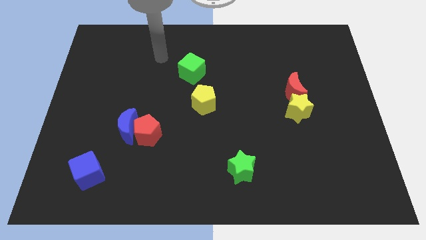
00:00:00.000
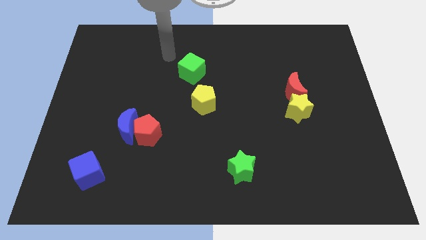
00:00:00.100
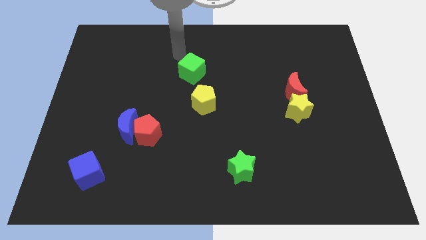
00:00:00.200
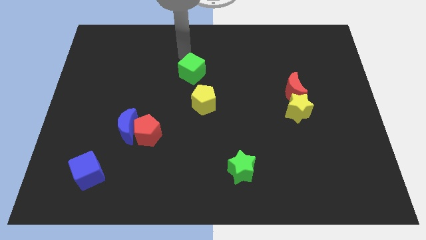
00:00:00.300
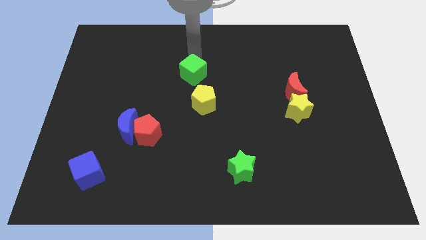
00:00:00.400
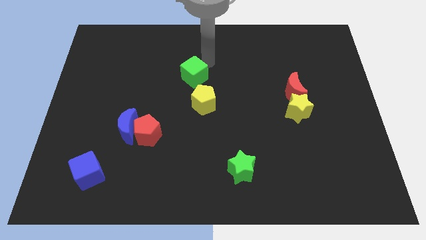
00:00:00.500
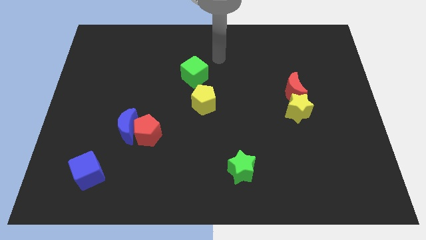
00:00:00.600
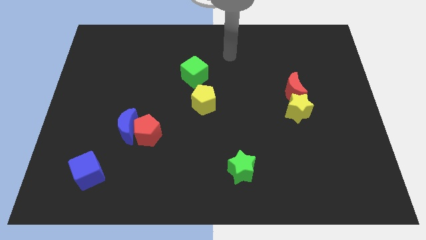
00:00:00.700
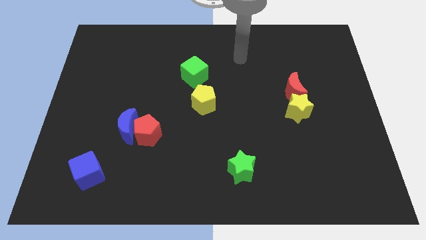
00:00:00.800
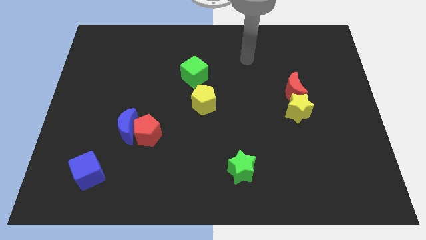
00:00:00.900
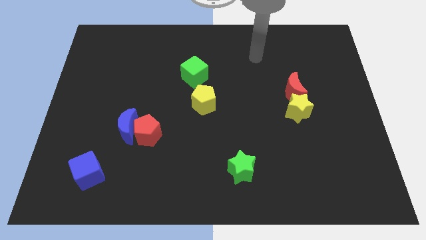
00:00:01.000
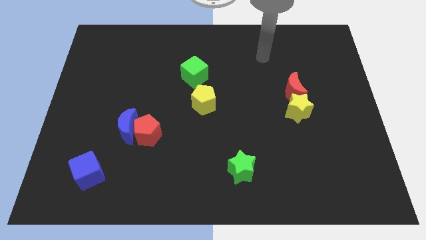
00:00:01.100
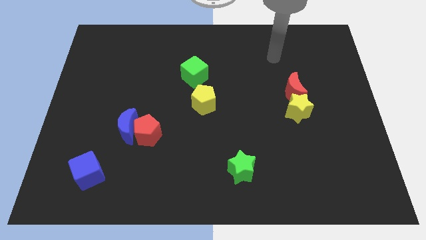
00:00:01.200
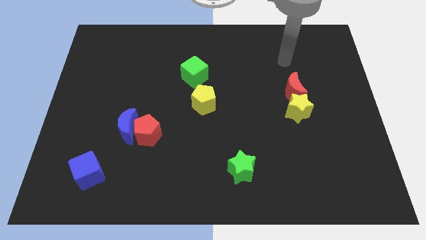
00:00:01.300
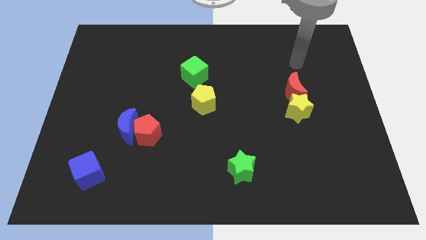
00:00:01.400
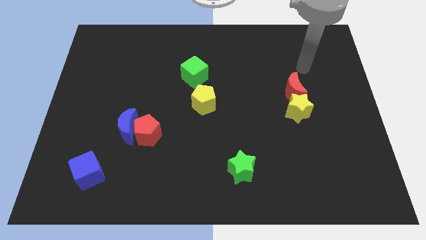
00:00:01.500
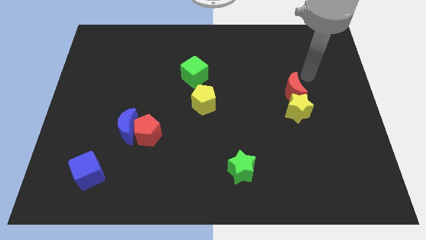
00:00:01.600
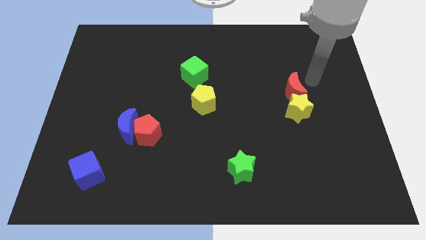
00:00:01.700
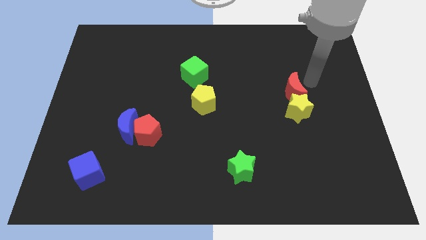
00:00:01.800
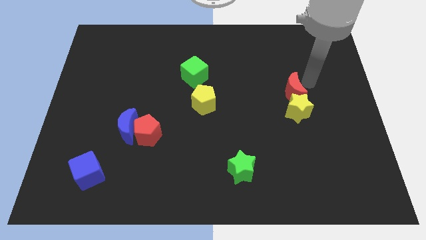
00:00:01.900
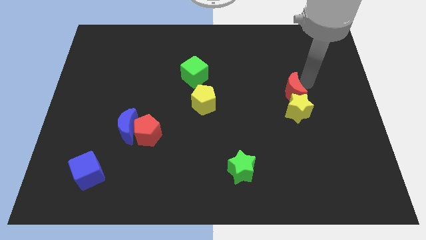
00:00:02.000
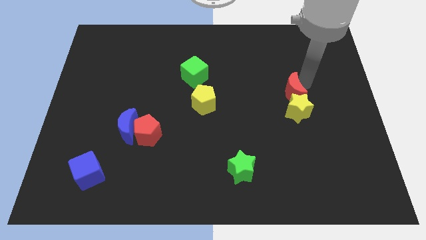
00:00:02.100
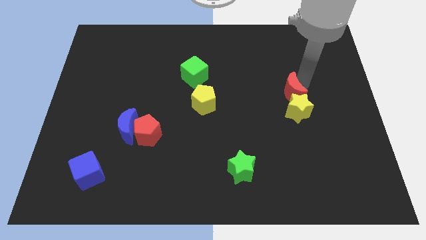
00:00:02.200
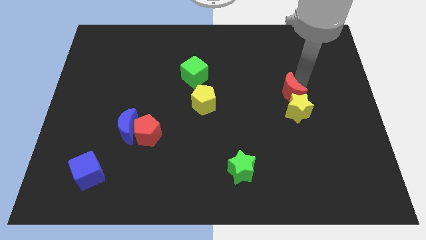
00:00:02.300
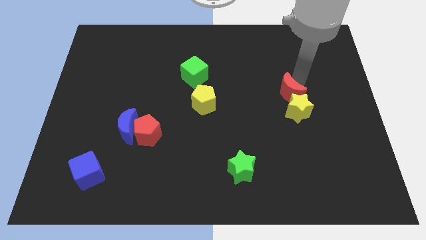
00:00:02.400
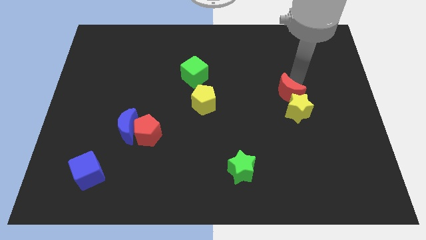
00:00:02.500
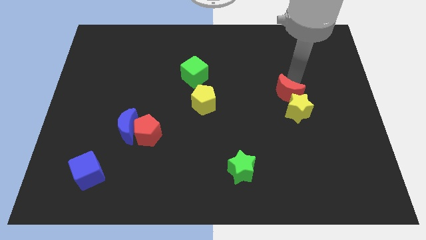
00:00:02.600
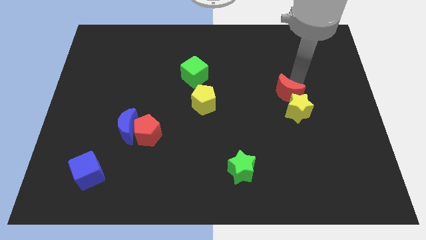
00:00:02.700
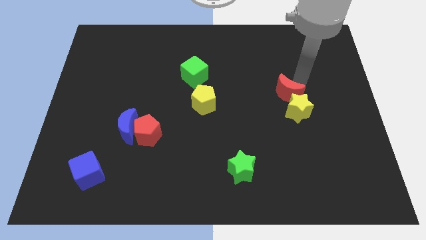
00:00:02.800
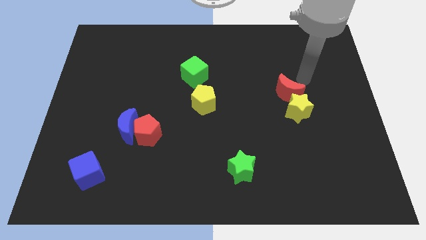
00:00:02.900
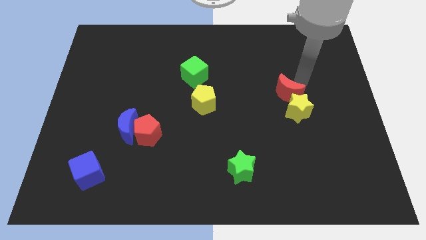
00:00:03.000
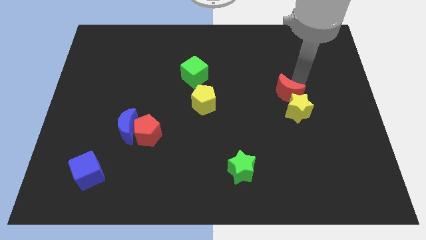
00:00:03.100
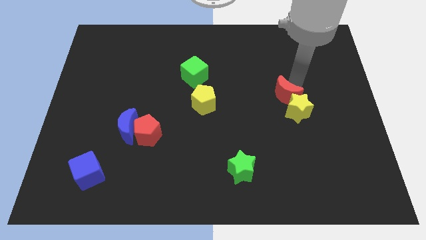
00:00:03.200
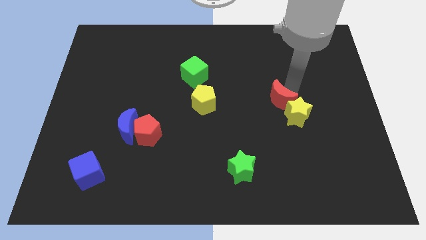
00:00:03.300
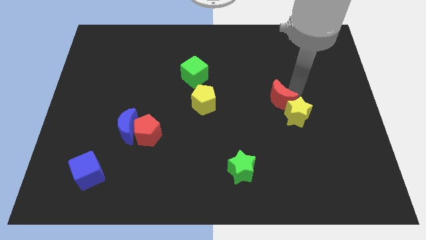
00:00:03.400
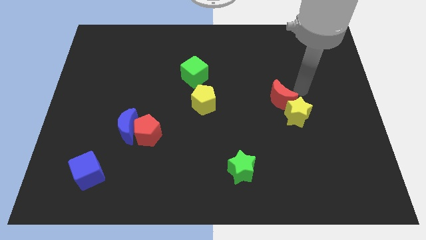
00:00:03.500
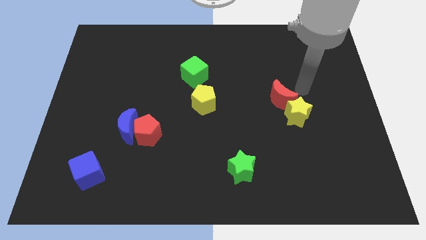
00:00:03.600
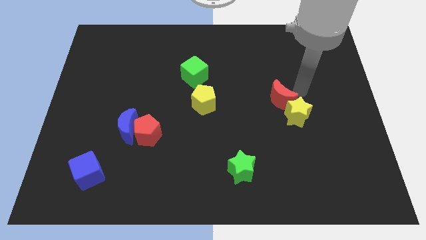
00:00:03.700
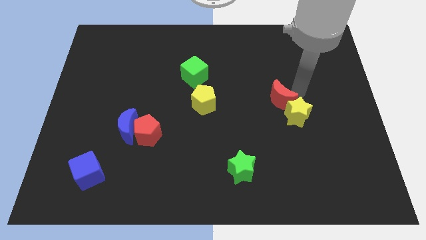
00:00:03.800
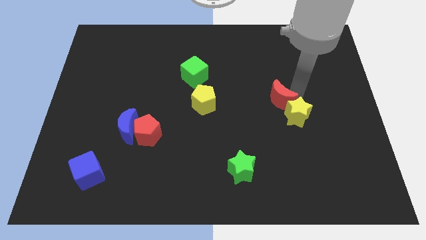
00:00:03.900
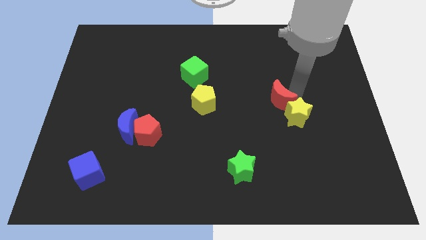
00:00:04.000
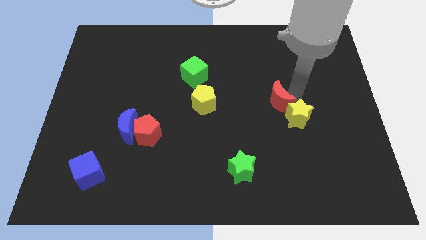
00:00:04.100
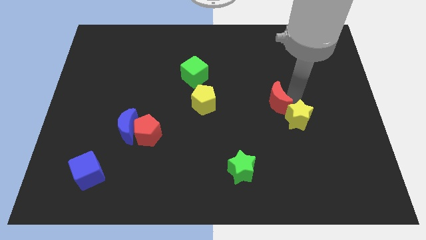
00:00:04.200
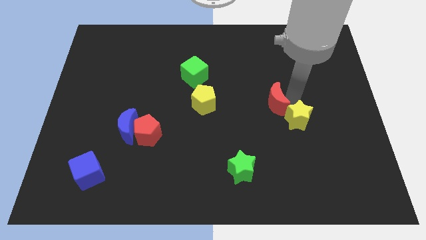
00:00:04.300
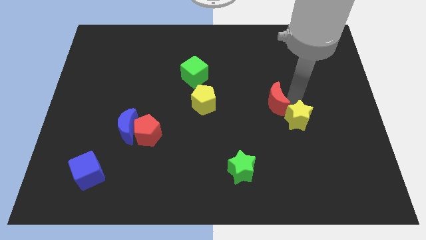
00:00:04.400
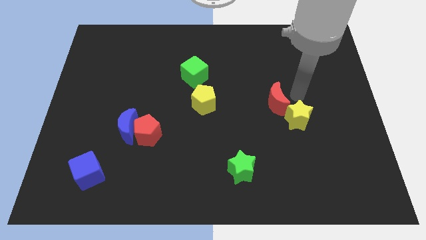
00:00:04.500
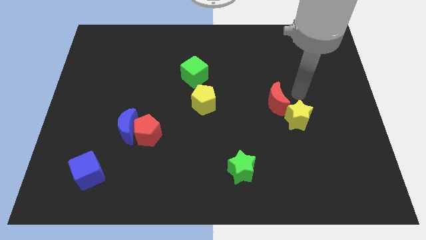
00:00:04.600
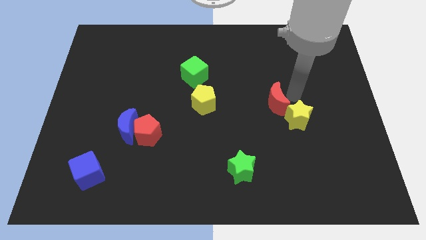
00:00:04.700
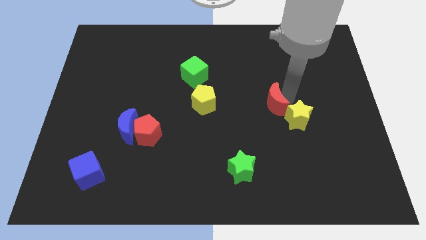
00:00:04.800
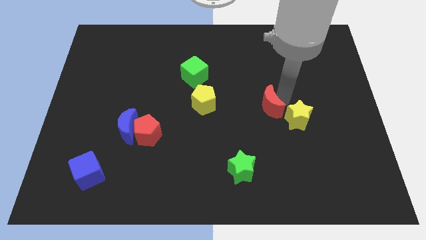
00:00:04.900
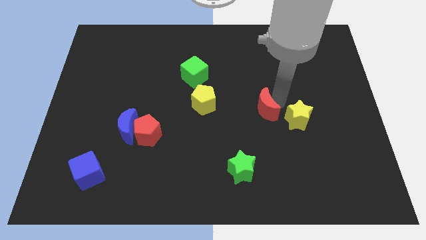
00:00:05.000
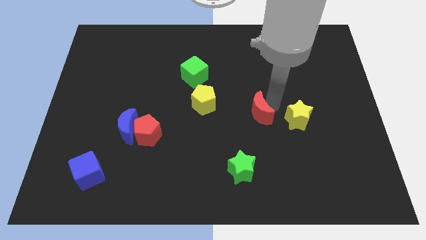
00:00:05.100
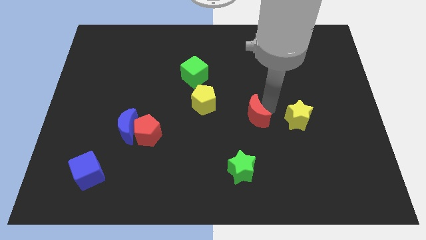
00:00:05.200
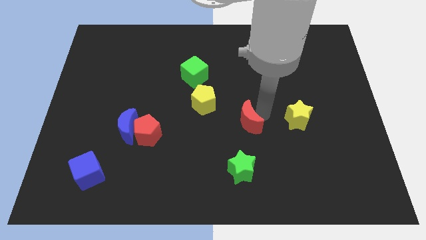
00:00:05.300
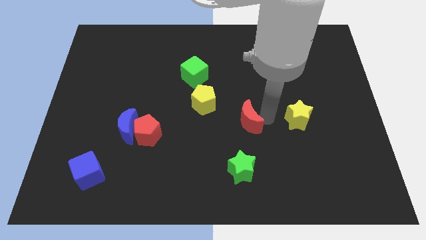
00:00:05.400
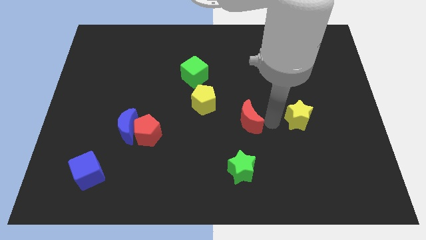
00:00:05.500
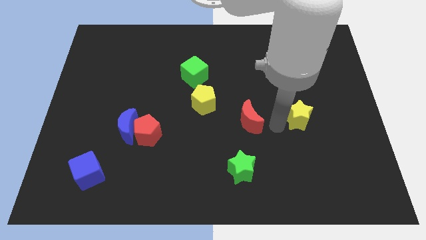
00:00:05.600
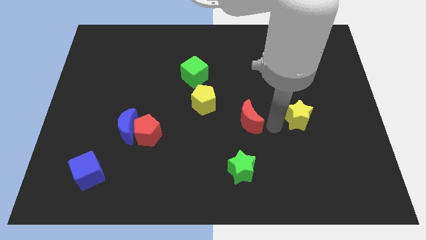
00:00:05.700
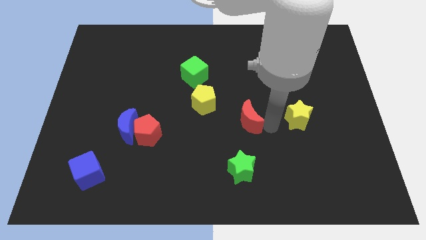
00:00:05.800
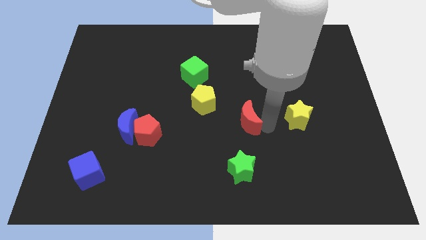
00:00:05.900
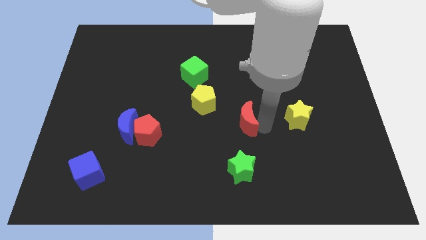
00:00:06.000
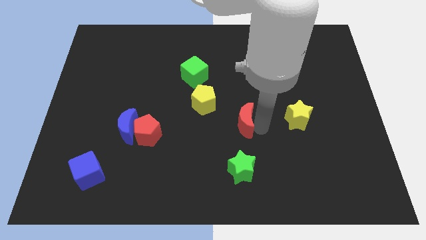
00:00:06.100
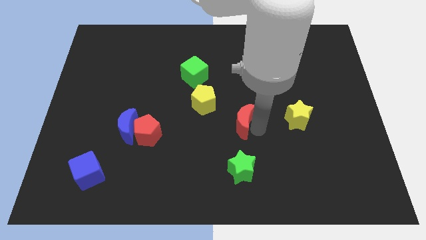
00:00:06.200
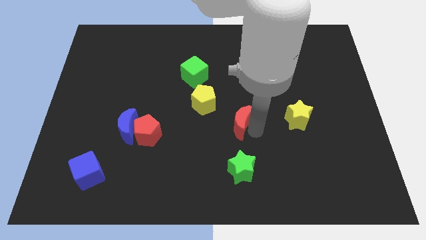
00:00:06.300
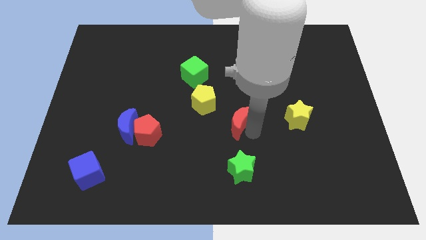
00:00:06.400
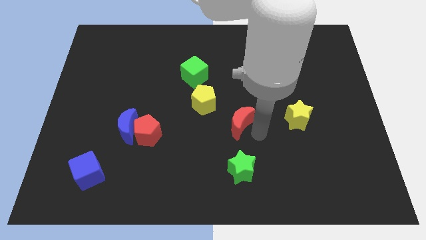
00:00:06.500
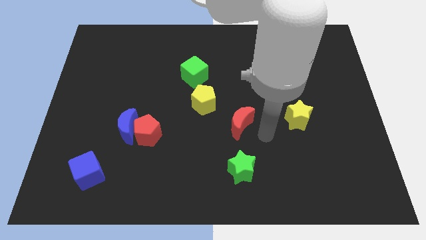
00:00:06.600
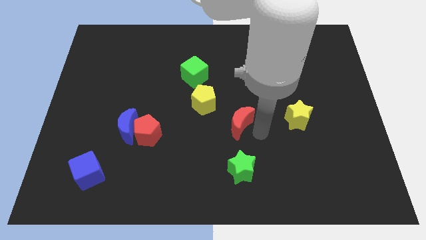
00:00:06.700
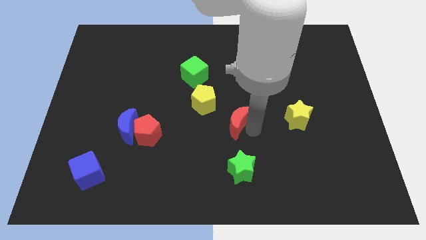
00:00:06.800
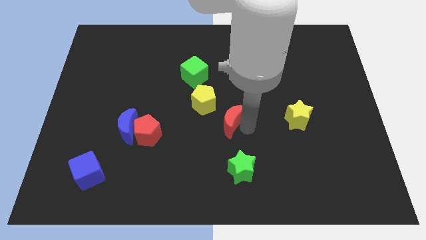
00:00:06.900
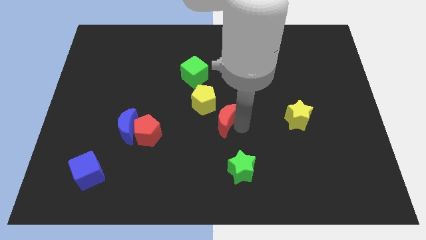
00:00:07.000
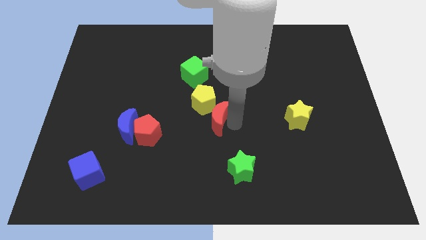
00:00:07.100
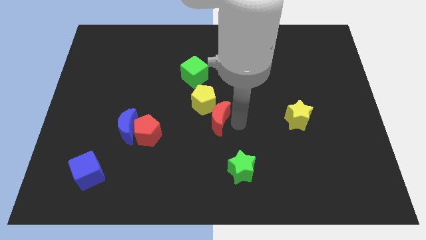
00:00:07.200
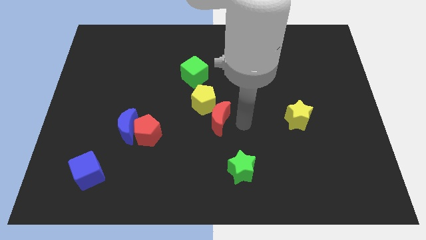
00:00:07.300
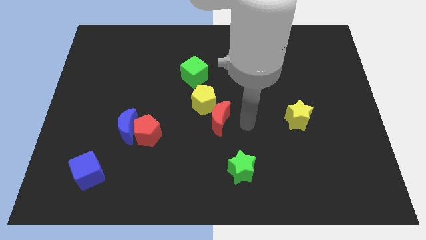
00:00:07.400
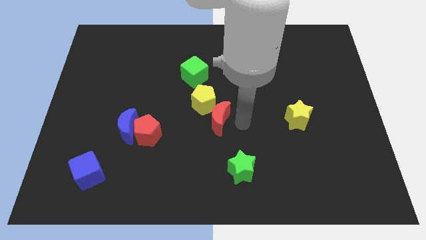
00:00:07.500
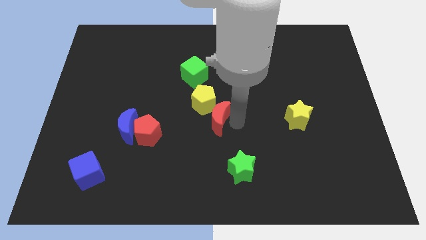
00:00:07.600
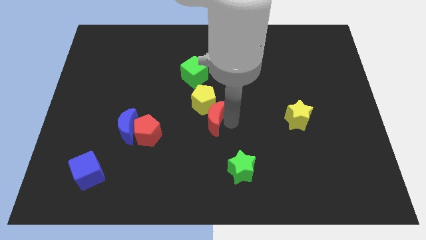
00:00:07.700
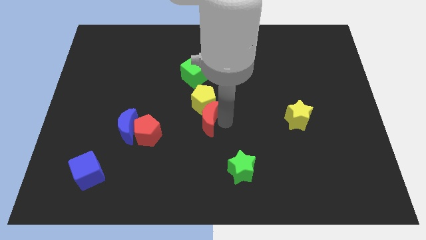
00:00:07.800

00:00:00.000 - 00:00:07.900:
put the red moon diagonally down and to the left of the yellow pentagon
